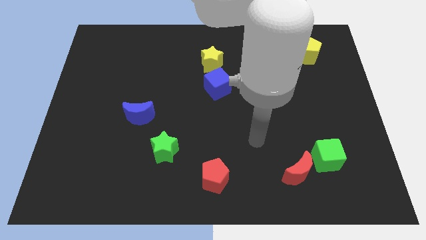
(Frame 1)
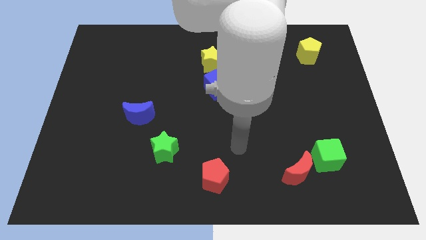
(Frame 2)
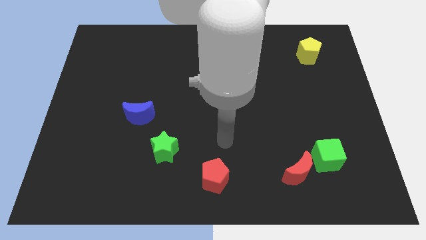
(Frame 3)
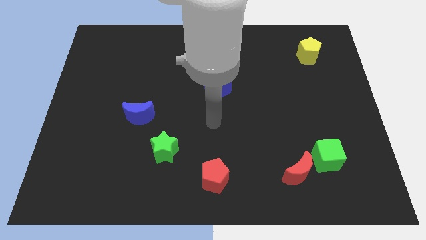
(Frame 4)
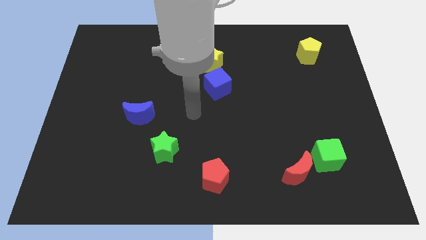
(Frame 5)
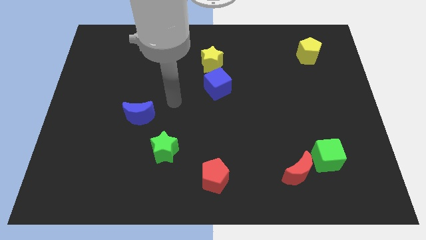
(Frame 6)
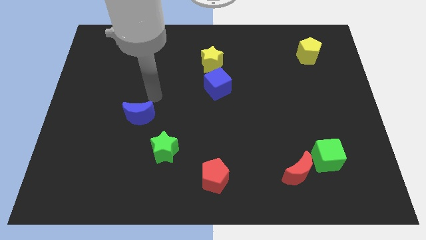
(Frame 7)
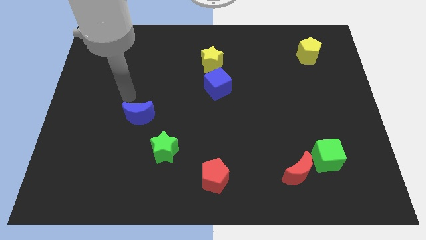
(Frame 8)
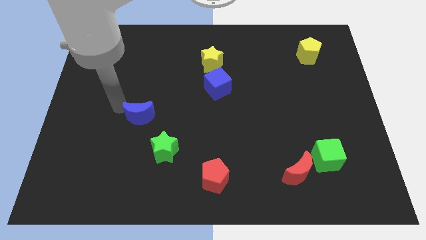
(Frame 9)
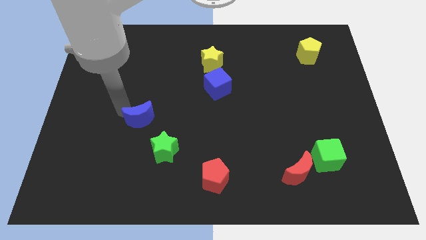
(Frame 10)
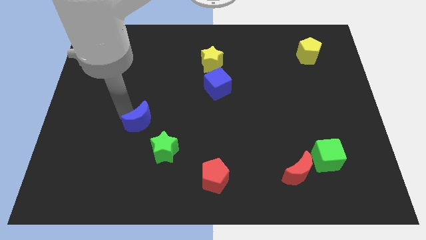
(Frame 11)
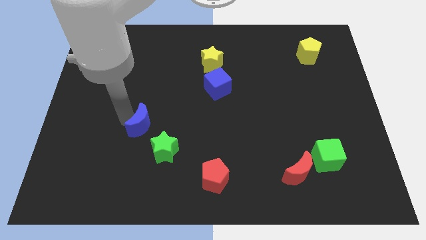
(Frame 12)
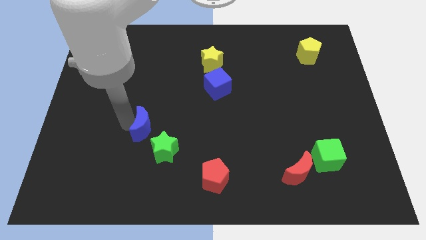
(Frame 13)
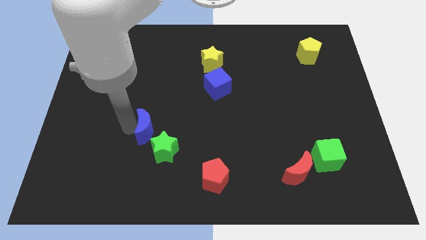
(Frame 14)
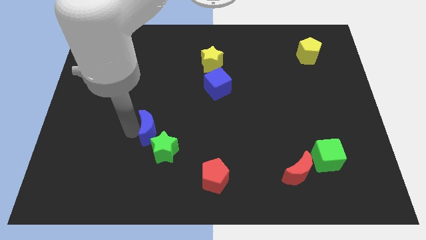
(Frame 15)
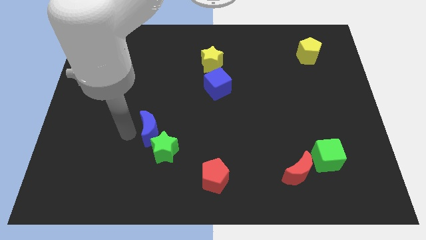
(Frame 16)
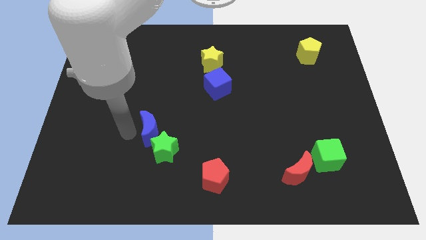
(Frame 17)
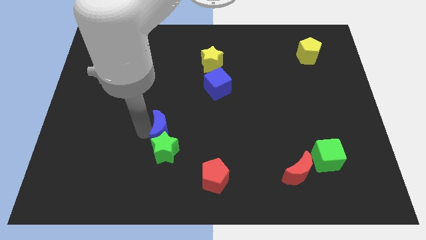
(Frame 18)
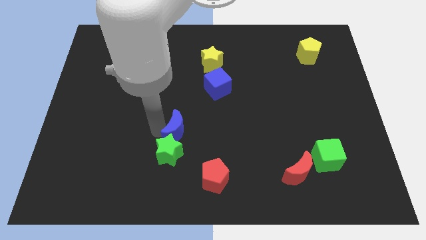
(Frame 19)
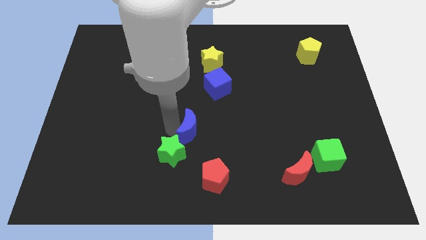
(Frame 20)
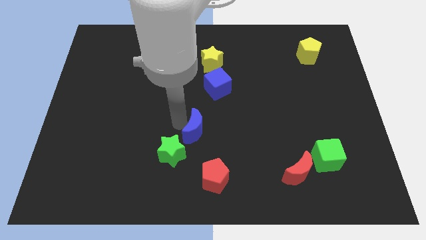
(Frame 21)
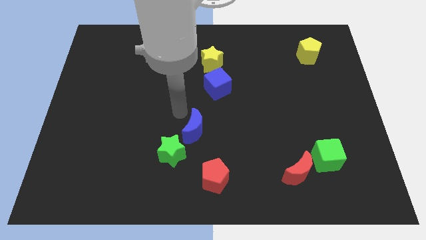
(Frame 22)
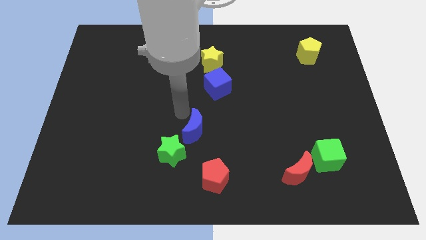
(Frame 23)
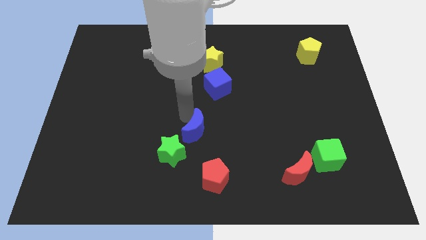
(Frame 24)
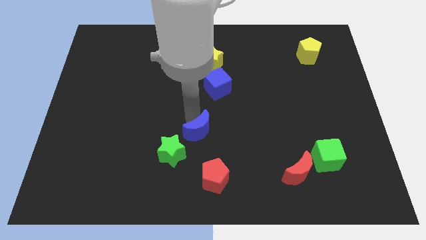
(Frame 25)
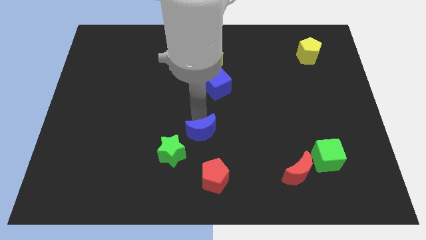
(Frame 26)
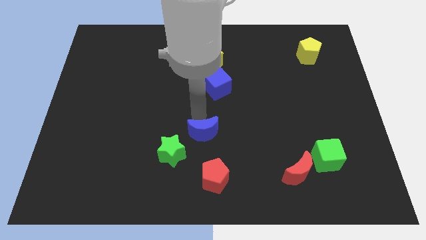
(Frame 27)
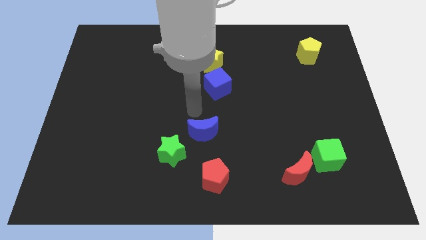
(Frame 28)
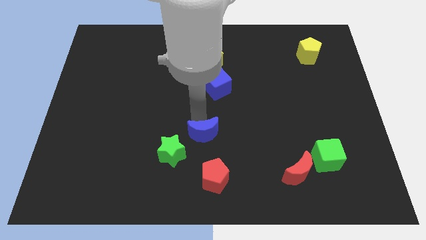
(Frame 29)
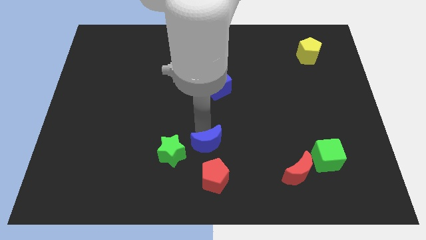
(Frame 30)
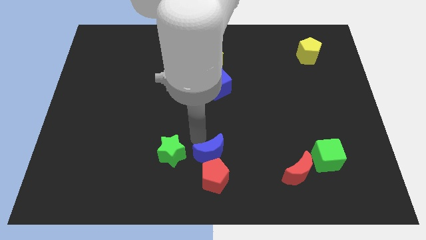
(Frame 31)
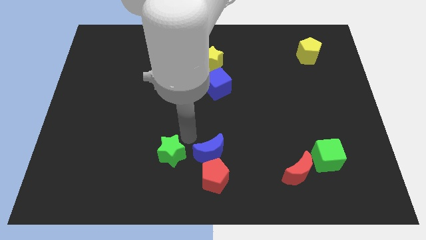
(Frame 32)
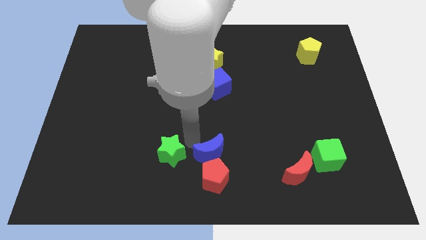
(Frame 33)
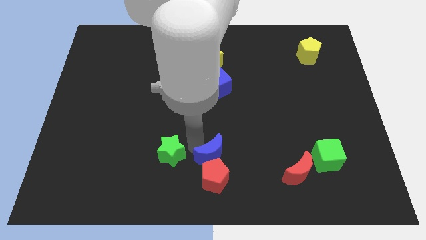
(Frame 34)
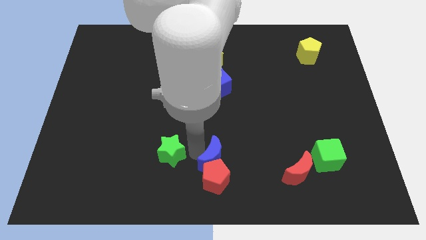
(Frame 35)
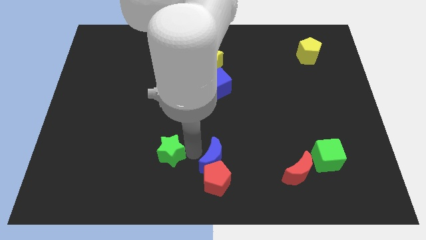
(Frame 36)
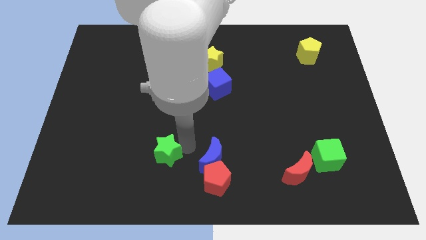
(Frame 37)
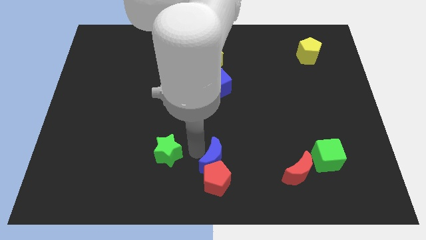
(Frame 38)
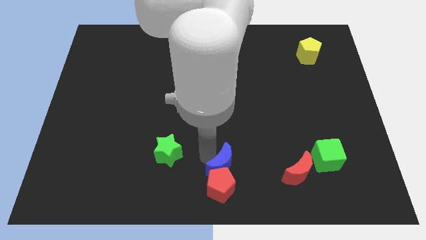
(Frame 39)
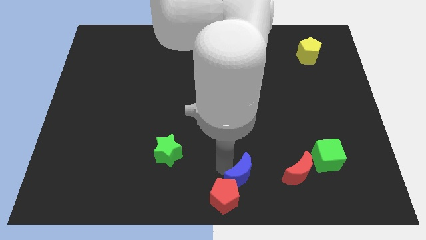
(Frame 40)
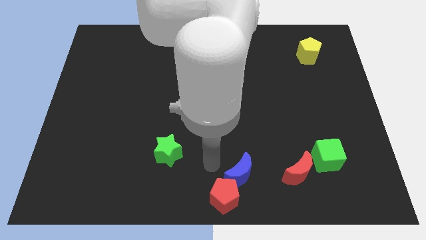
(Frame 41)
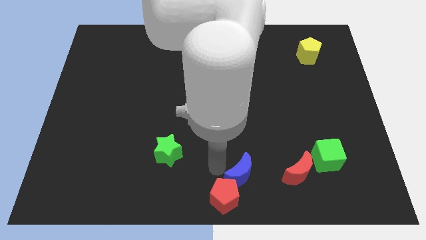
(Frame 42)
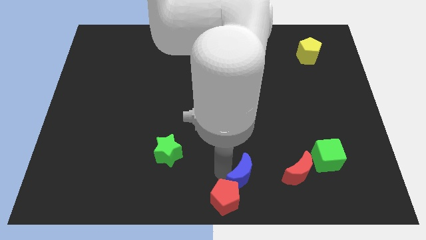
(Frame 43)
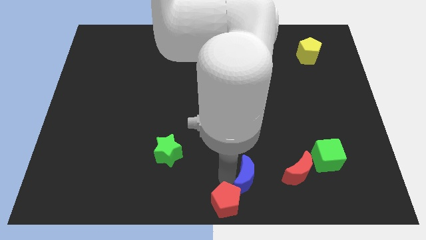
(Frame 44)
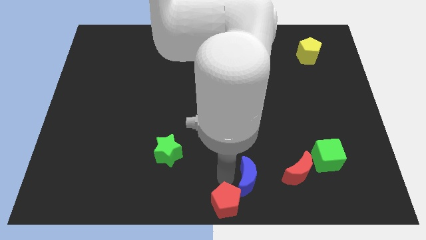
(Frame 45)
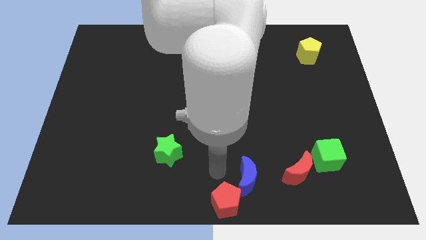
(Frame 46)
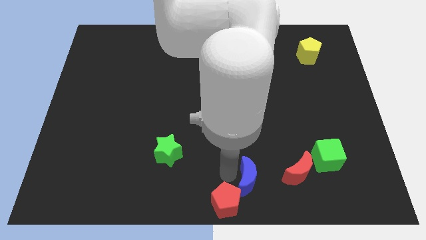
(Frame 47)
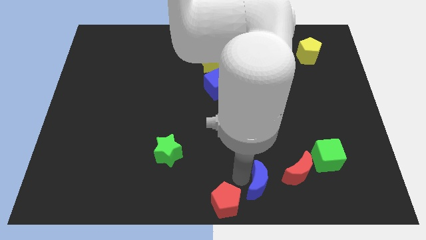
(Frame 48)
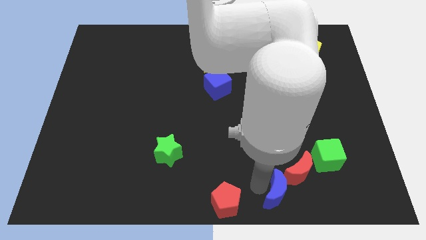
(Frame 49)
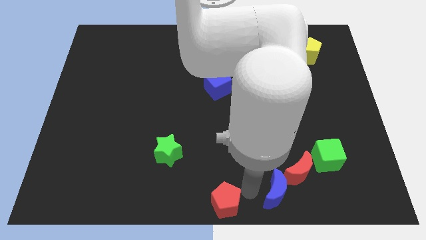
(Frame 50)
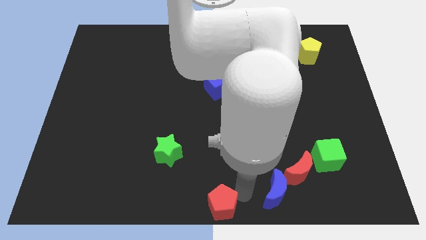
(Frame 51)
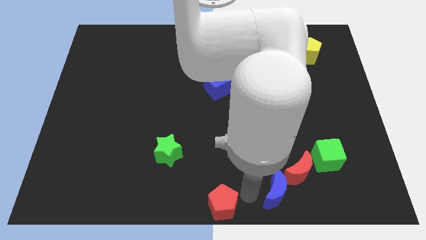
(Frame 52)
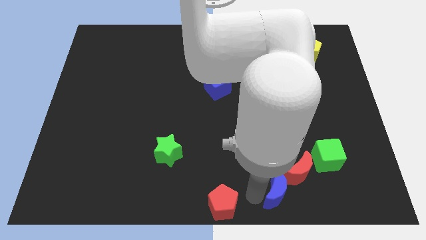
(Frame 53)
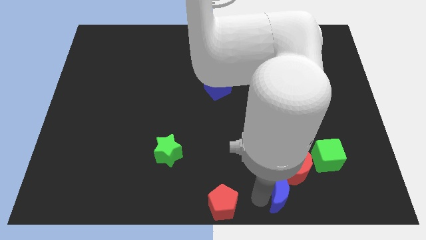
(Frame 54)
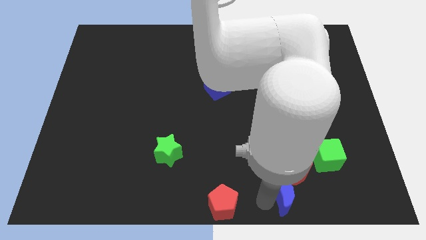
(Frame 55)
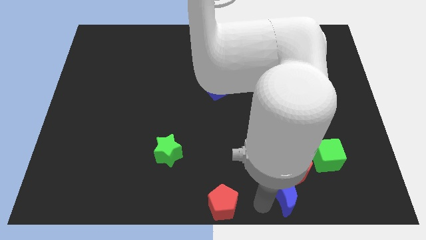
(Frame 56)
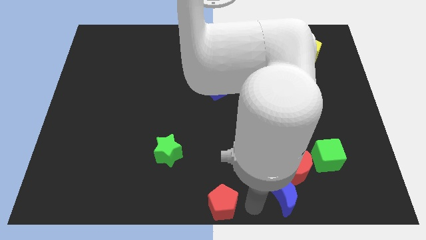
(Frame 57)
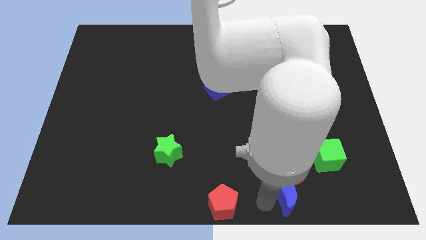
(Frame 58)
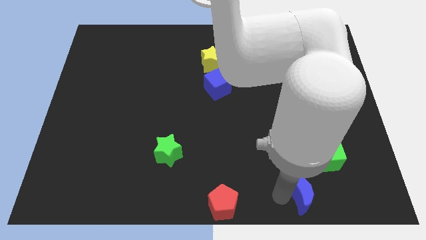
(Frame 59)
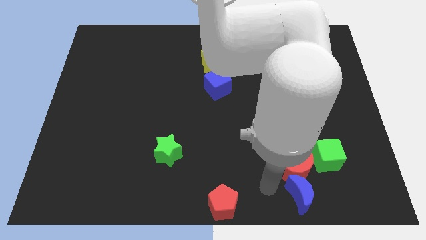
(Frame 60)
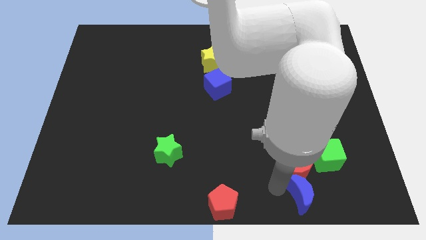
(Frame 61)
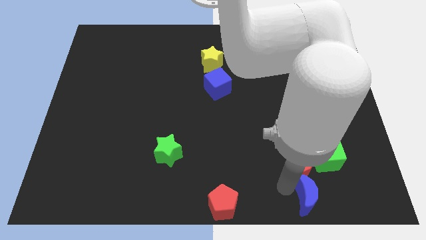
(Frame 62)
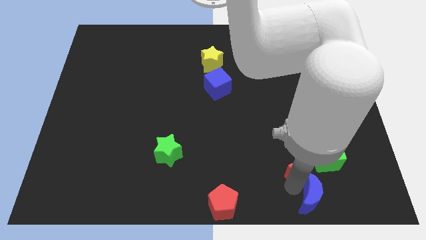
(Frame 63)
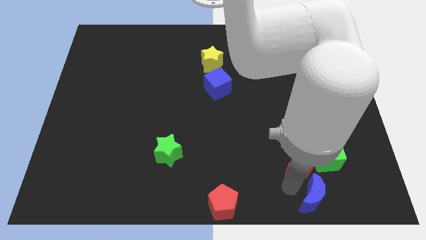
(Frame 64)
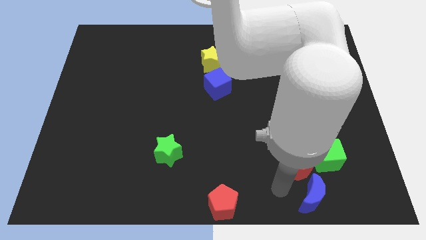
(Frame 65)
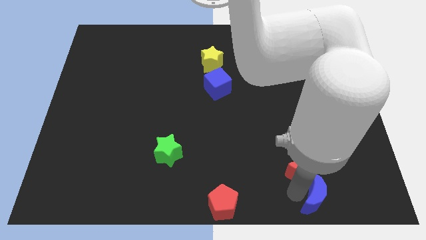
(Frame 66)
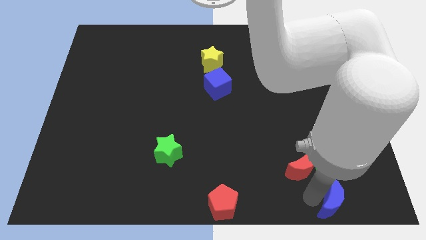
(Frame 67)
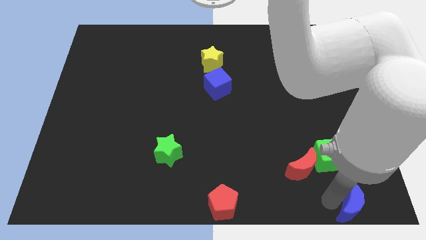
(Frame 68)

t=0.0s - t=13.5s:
move the blue moon to the bottom right
